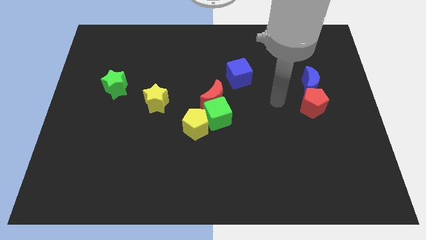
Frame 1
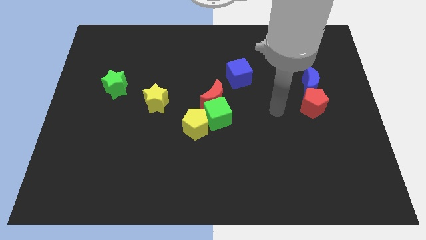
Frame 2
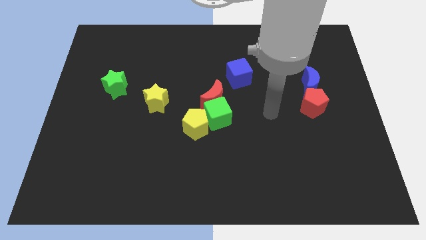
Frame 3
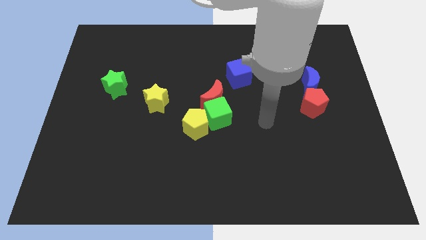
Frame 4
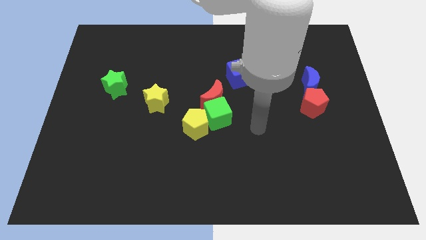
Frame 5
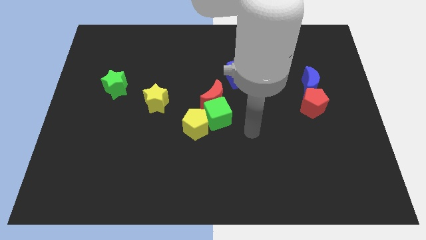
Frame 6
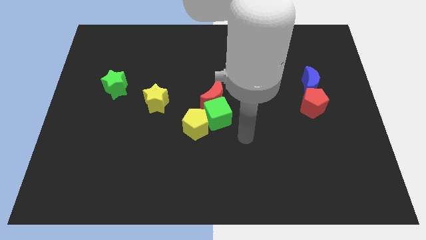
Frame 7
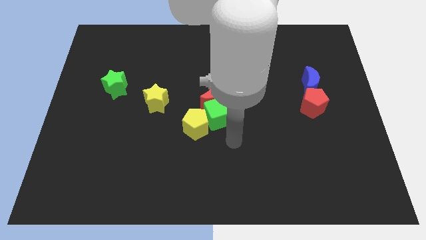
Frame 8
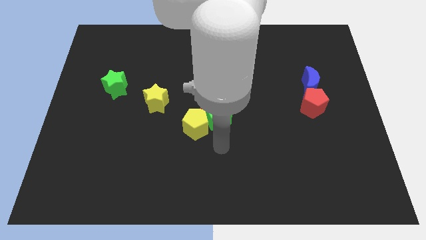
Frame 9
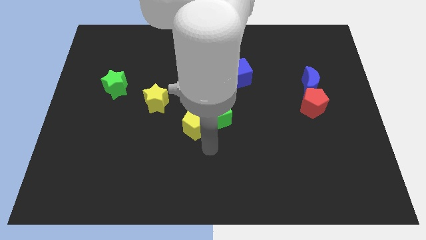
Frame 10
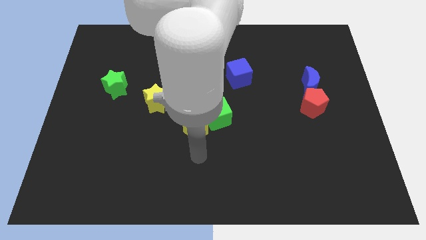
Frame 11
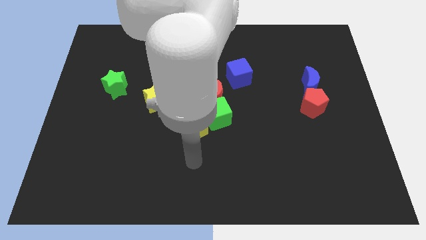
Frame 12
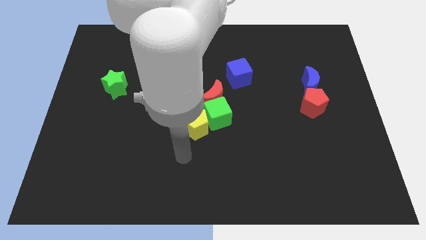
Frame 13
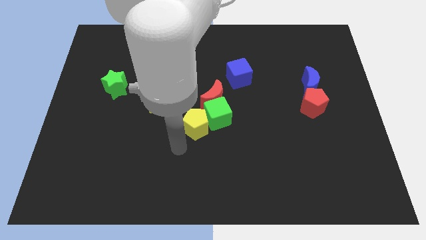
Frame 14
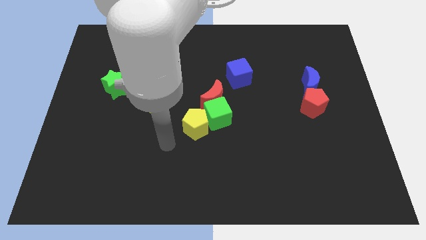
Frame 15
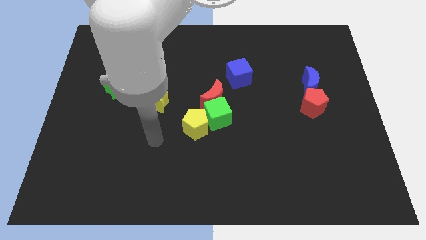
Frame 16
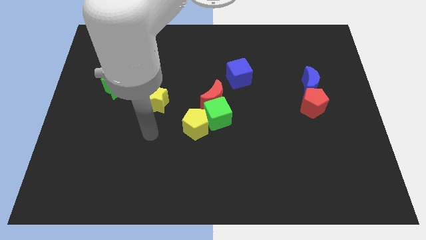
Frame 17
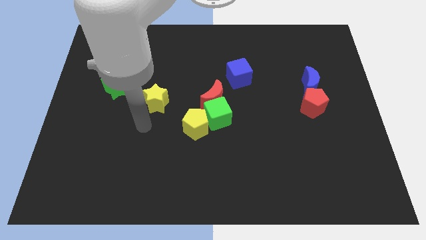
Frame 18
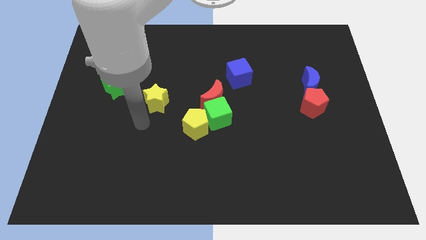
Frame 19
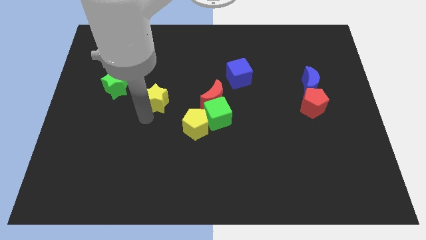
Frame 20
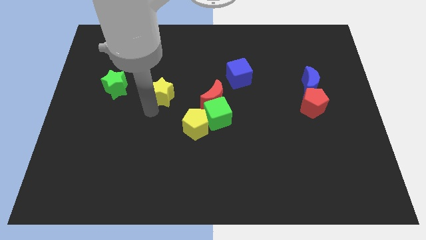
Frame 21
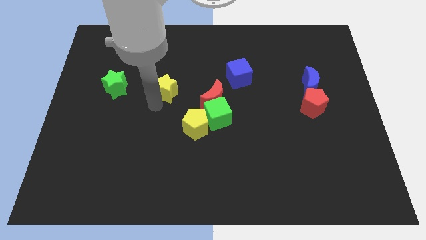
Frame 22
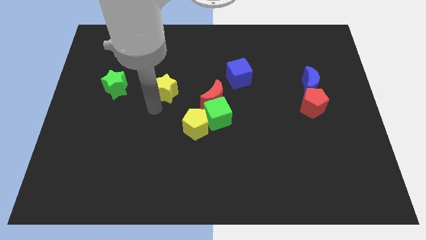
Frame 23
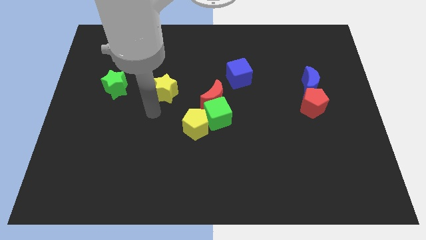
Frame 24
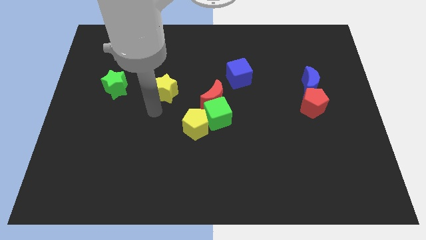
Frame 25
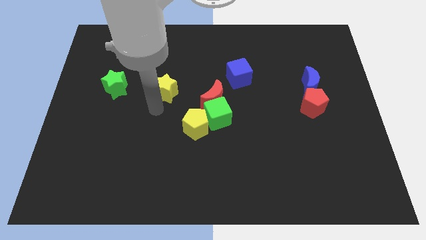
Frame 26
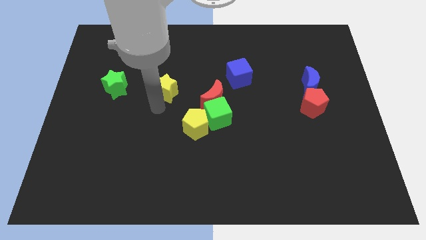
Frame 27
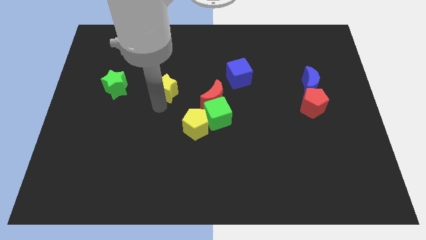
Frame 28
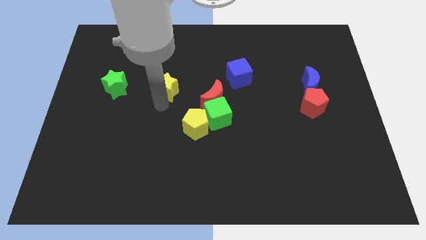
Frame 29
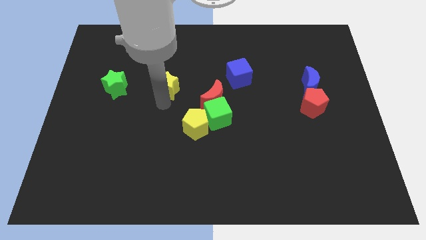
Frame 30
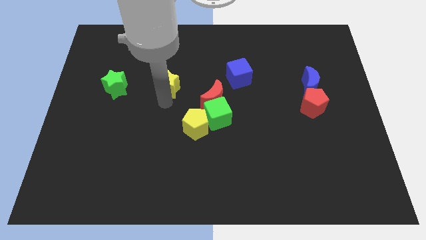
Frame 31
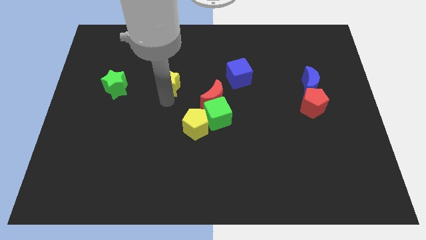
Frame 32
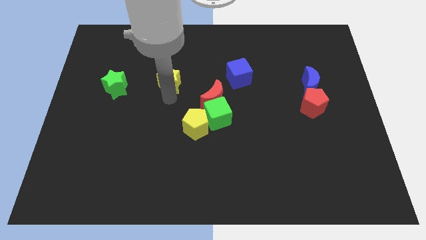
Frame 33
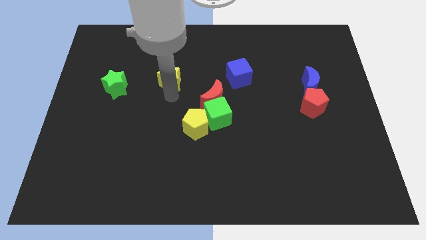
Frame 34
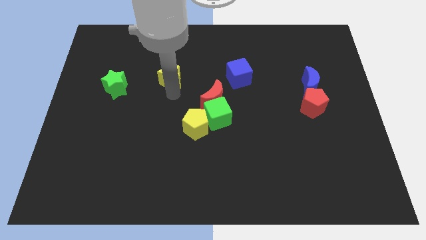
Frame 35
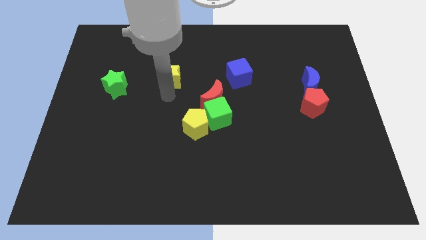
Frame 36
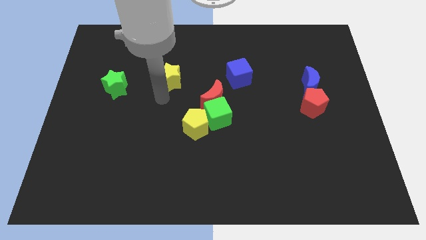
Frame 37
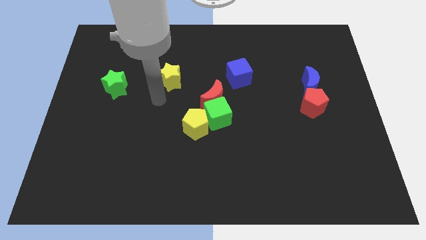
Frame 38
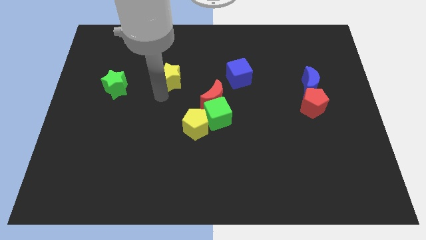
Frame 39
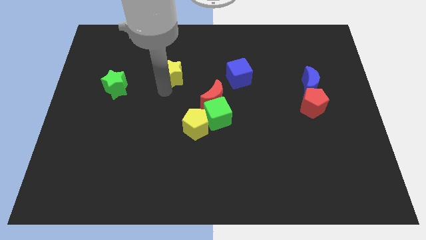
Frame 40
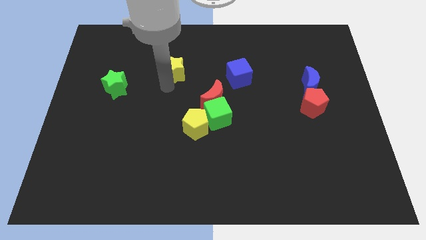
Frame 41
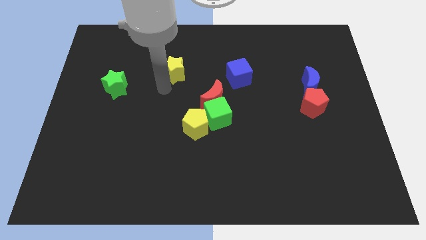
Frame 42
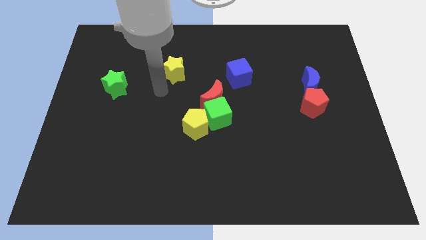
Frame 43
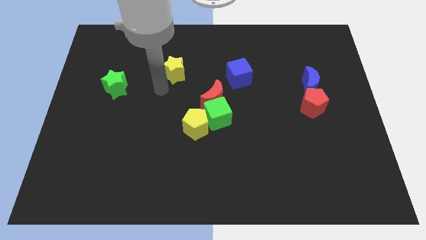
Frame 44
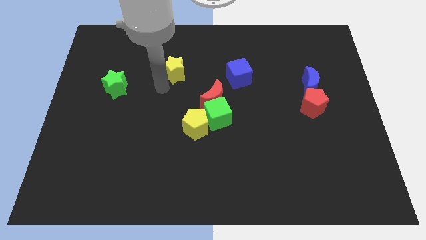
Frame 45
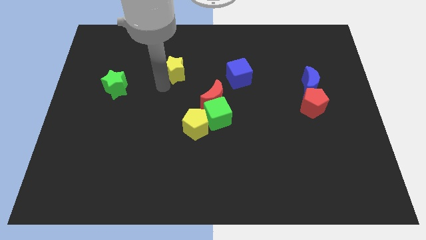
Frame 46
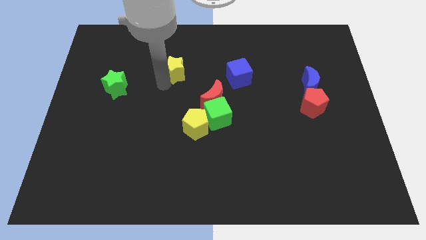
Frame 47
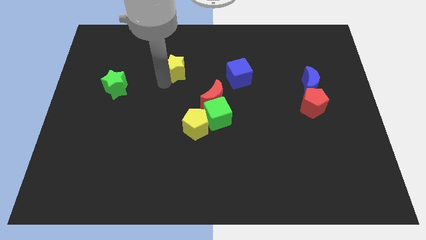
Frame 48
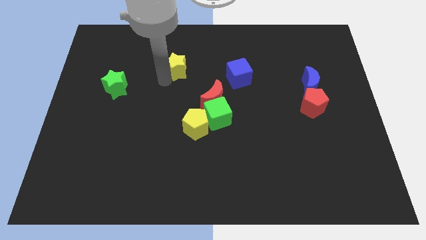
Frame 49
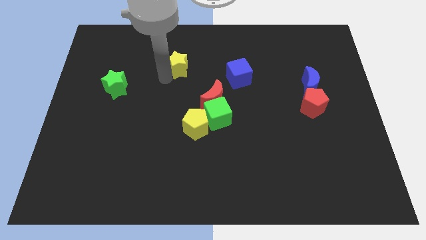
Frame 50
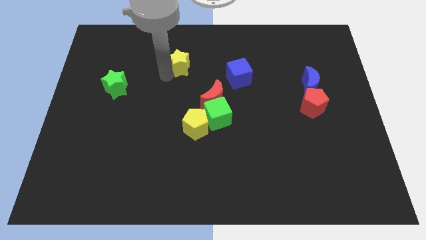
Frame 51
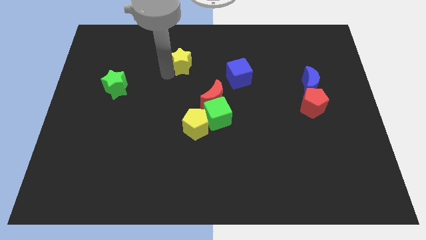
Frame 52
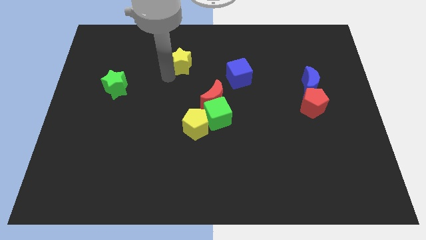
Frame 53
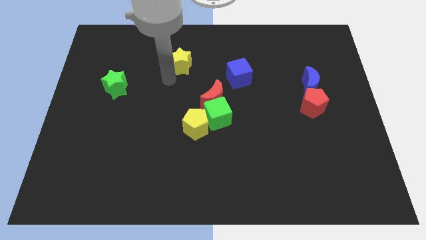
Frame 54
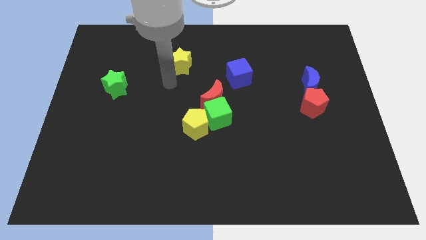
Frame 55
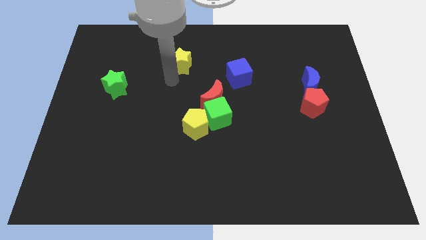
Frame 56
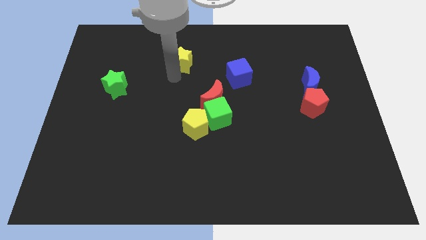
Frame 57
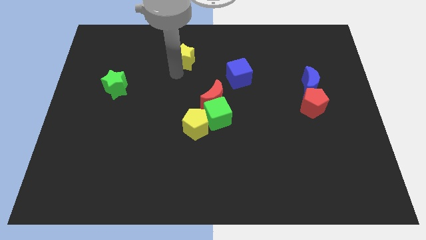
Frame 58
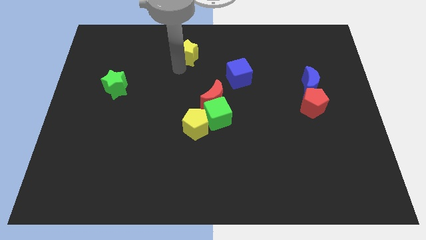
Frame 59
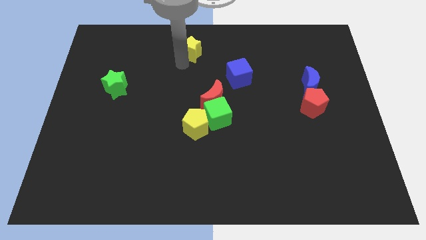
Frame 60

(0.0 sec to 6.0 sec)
move the yellow star to the top
